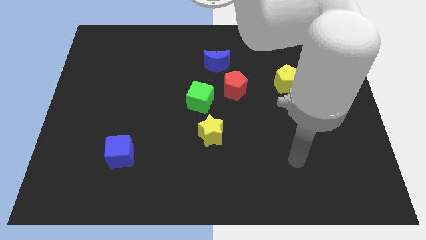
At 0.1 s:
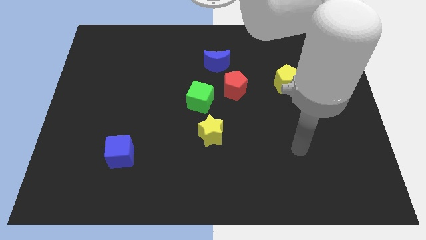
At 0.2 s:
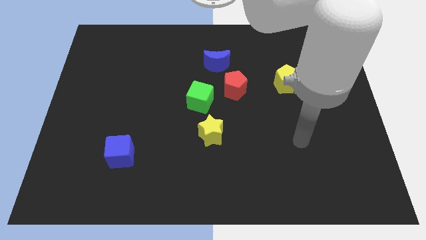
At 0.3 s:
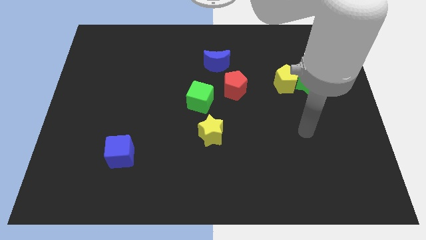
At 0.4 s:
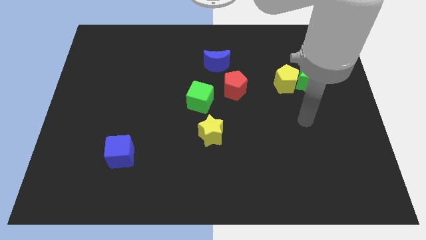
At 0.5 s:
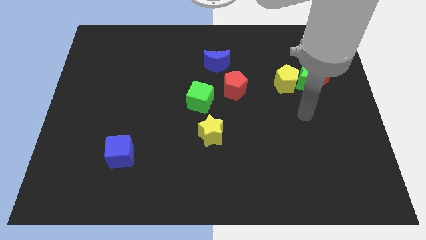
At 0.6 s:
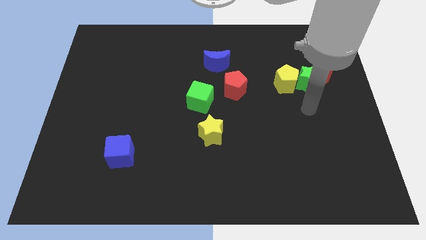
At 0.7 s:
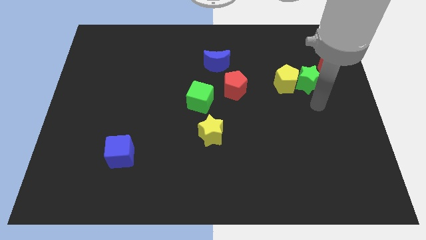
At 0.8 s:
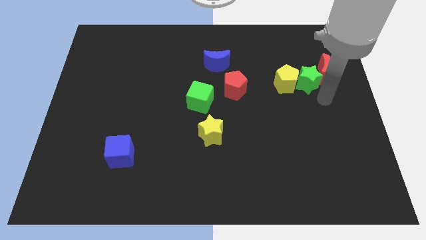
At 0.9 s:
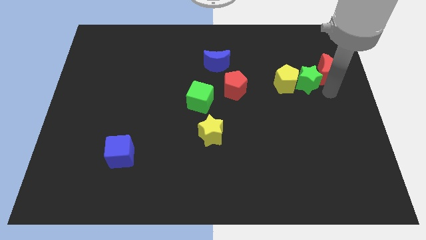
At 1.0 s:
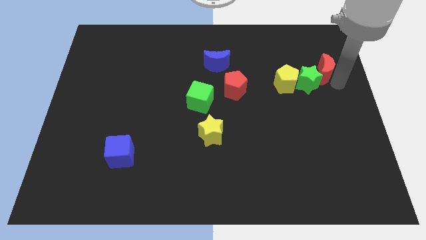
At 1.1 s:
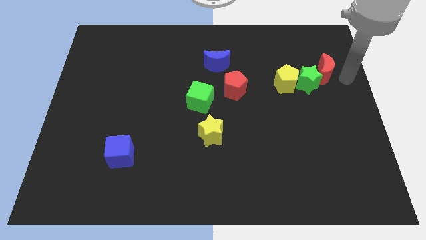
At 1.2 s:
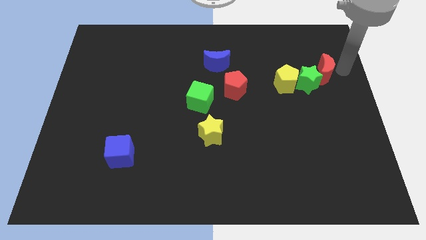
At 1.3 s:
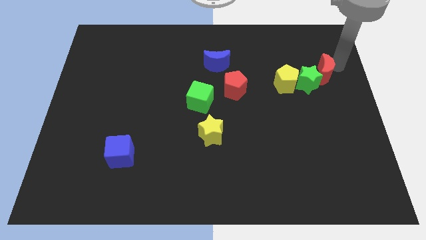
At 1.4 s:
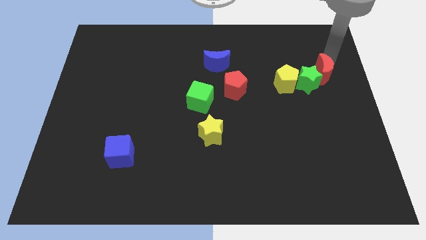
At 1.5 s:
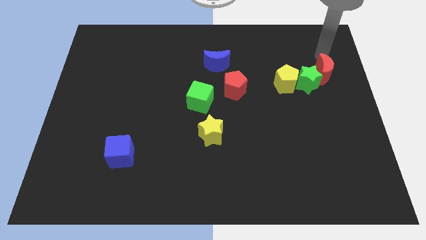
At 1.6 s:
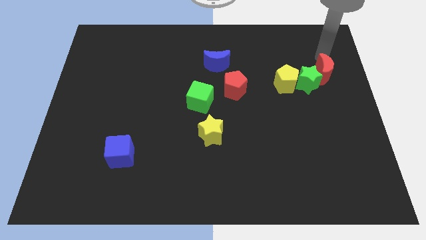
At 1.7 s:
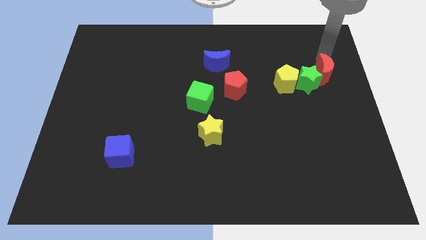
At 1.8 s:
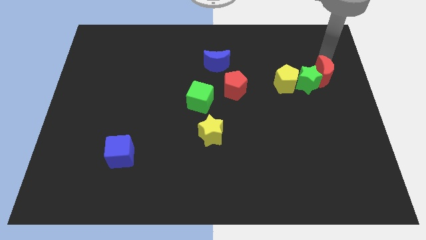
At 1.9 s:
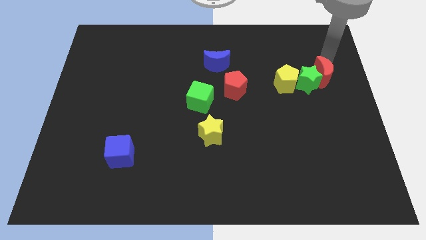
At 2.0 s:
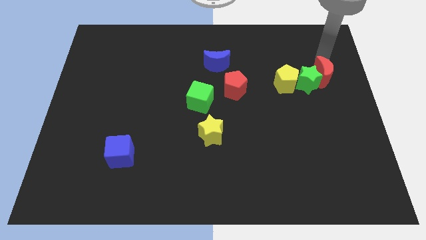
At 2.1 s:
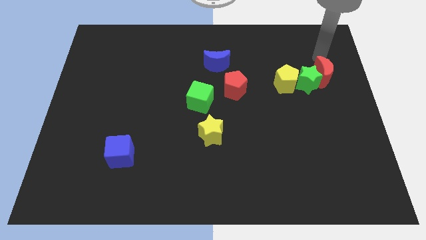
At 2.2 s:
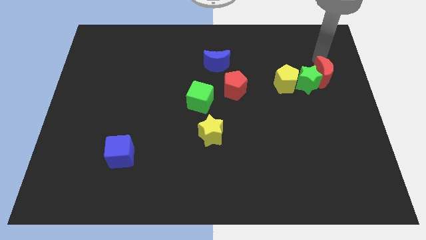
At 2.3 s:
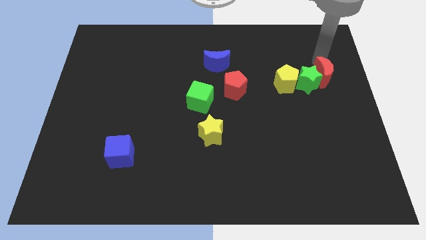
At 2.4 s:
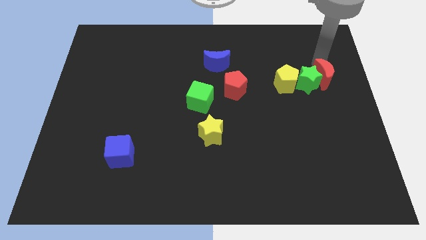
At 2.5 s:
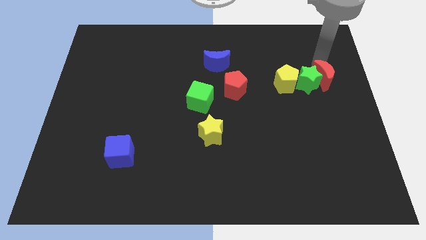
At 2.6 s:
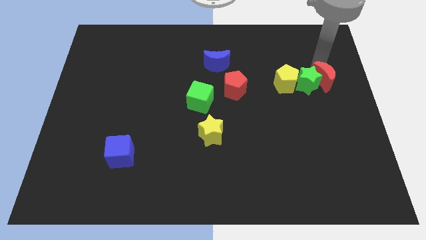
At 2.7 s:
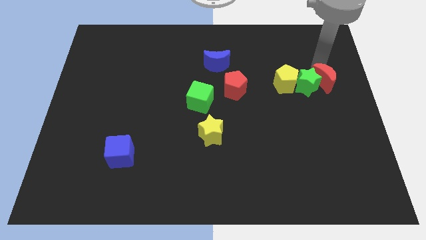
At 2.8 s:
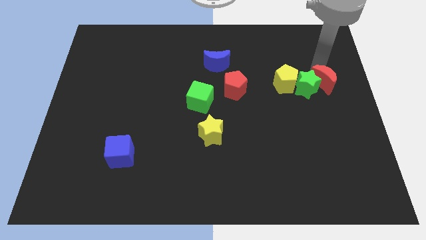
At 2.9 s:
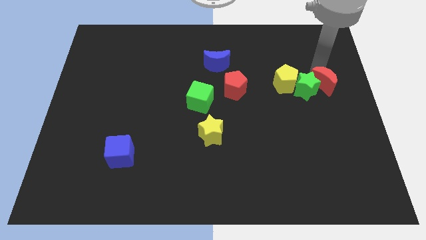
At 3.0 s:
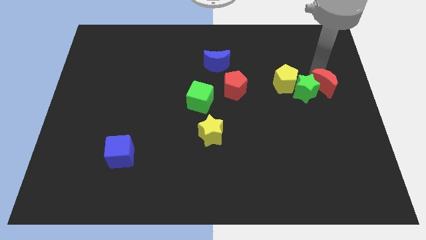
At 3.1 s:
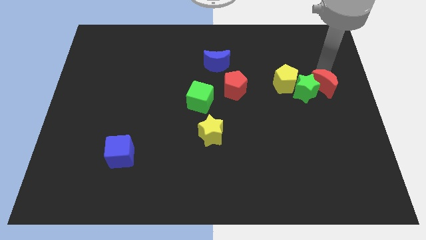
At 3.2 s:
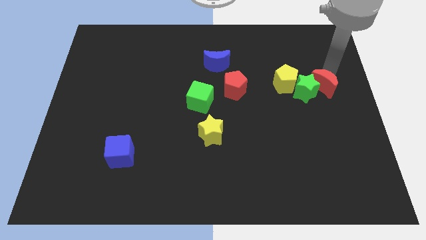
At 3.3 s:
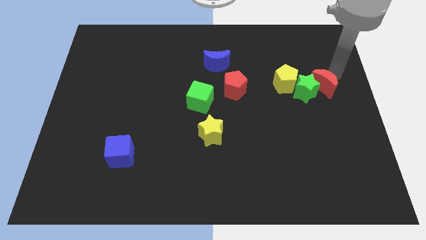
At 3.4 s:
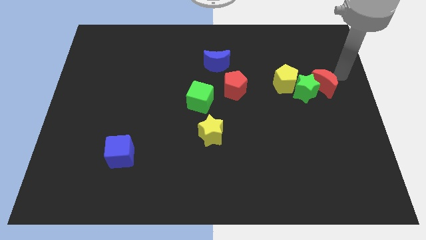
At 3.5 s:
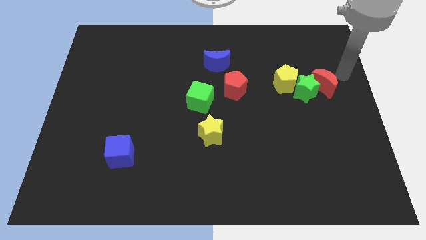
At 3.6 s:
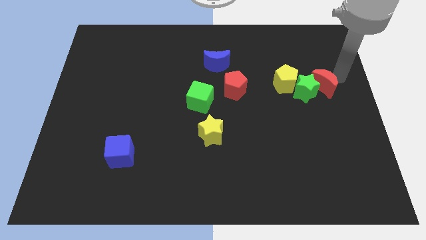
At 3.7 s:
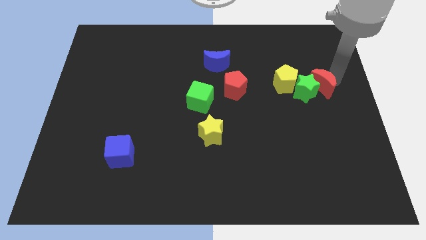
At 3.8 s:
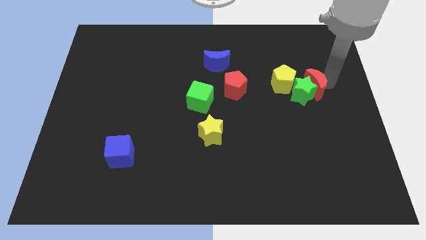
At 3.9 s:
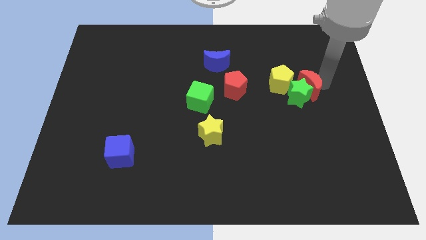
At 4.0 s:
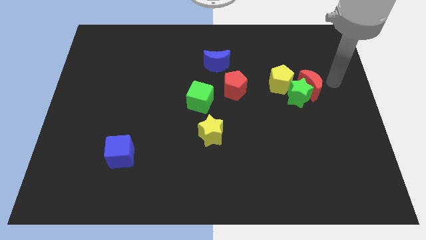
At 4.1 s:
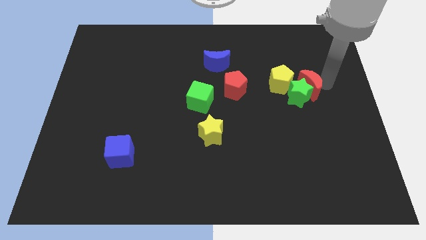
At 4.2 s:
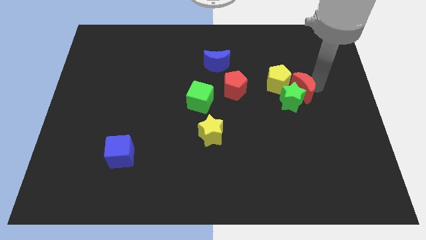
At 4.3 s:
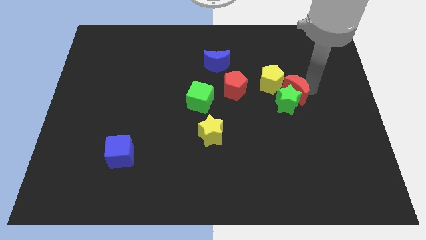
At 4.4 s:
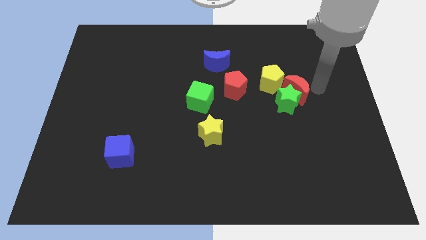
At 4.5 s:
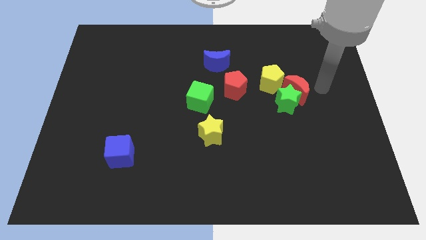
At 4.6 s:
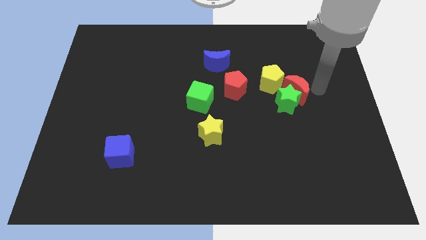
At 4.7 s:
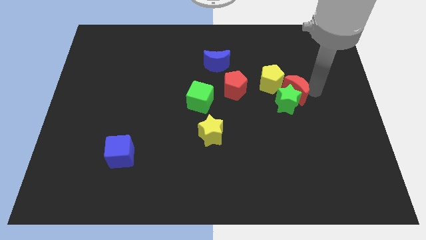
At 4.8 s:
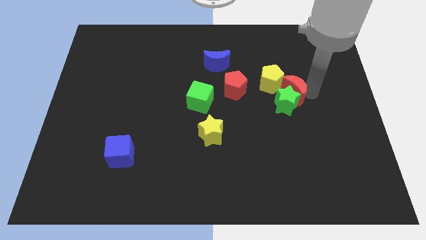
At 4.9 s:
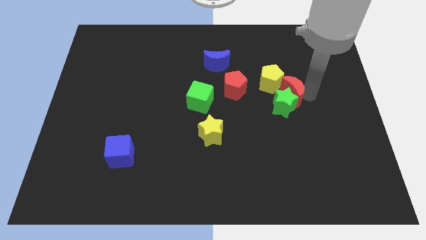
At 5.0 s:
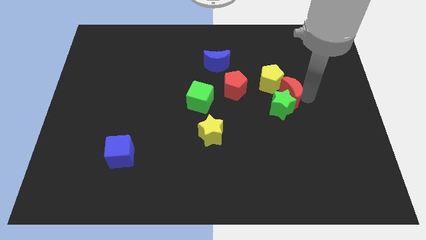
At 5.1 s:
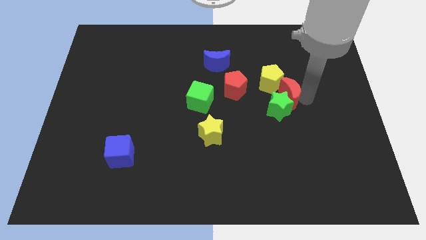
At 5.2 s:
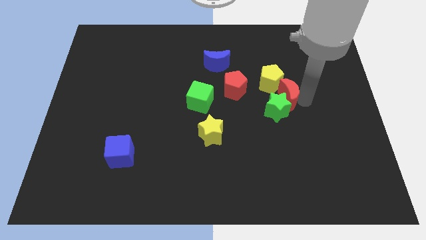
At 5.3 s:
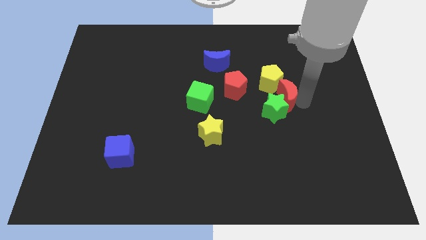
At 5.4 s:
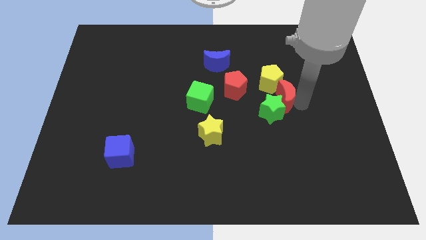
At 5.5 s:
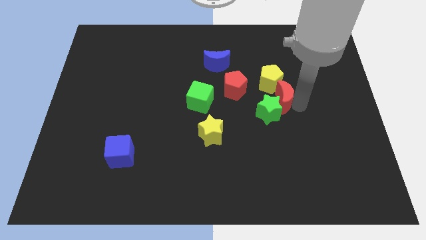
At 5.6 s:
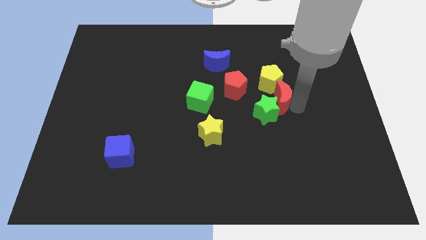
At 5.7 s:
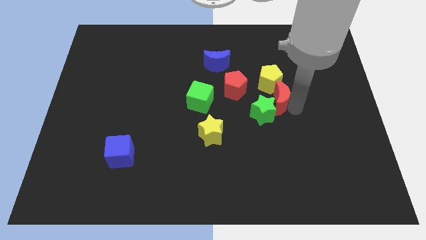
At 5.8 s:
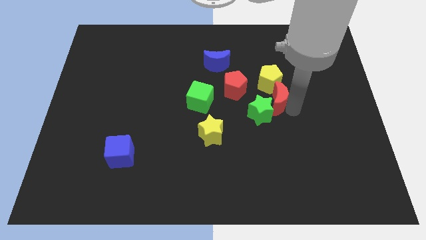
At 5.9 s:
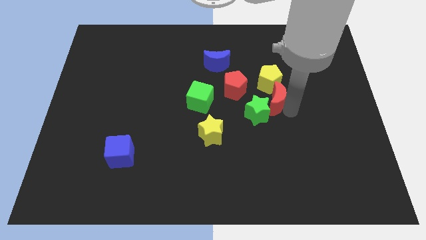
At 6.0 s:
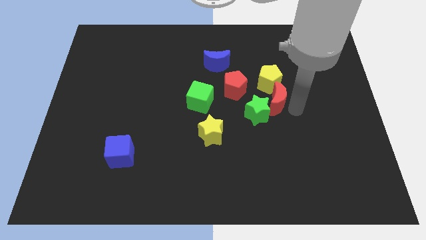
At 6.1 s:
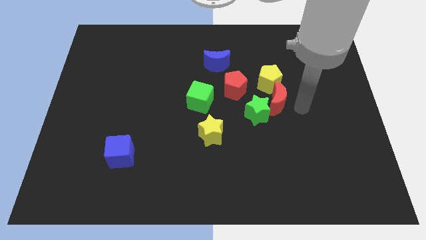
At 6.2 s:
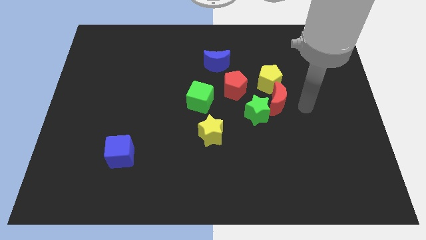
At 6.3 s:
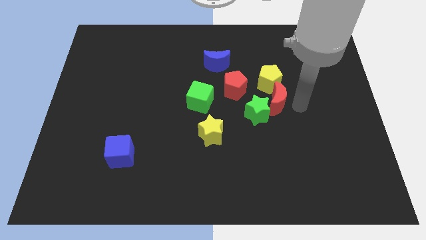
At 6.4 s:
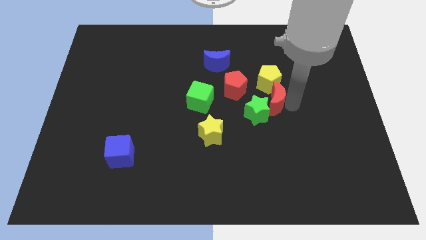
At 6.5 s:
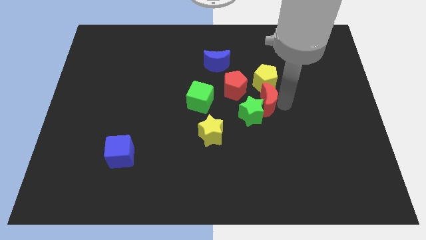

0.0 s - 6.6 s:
move the red moon to the bottom left side of the yellow pentagon

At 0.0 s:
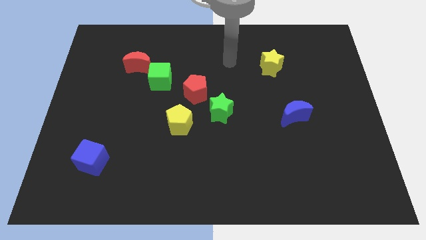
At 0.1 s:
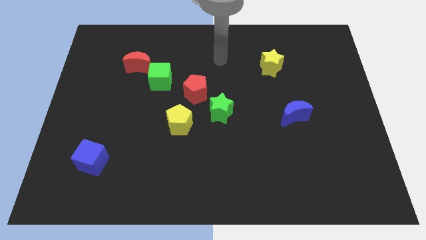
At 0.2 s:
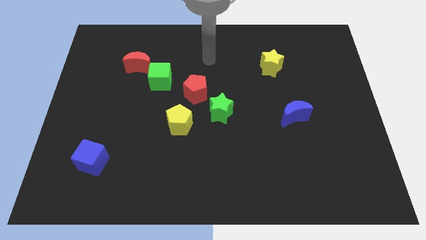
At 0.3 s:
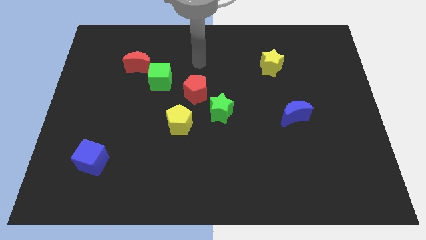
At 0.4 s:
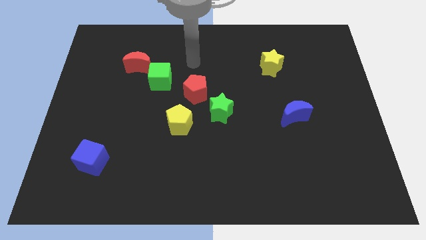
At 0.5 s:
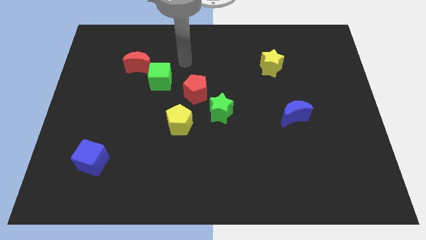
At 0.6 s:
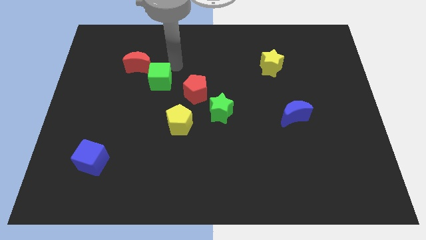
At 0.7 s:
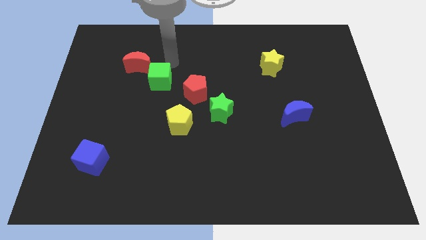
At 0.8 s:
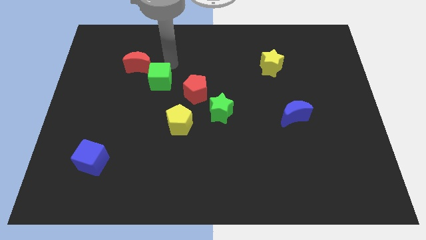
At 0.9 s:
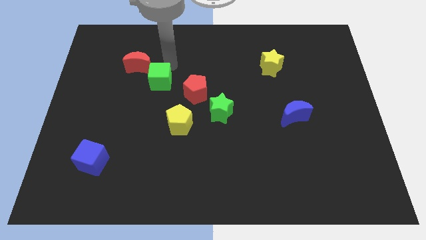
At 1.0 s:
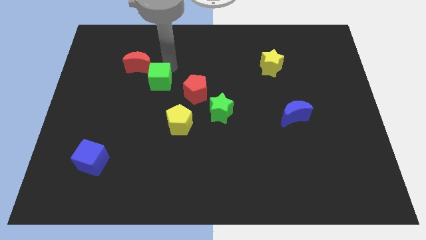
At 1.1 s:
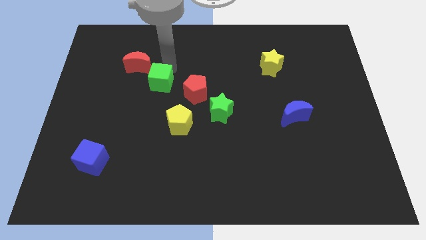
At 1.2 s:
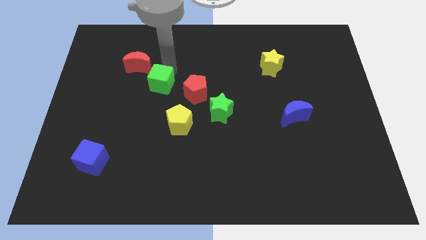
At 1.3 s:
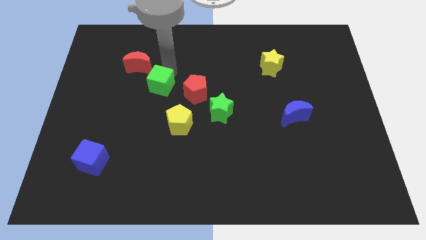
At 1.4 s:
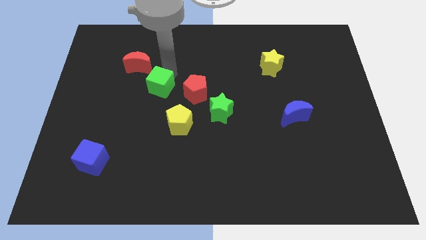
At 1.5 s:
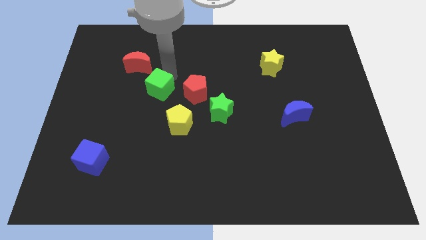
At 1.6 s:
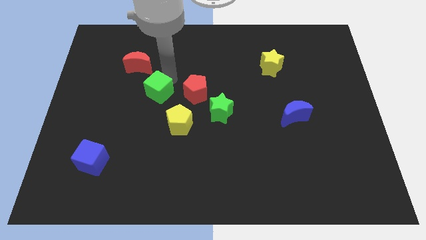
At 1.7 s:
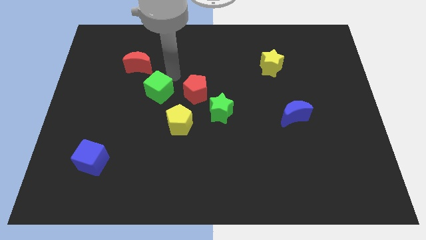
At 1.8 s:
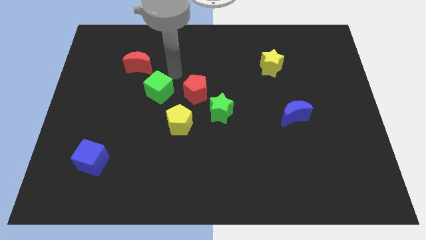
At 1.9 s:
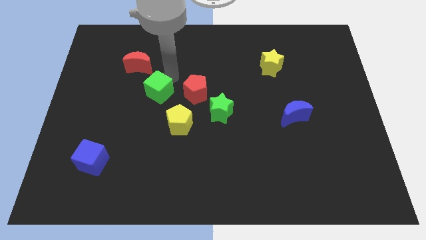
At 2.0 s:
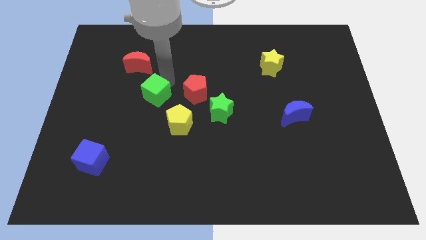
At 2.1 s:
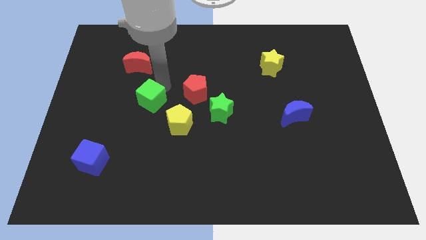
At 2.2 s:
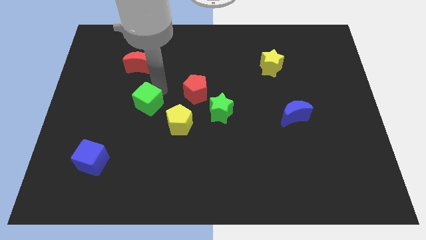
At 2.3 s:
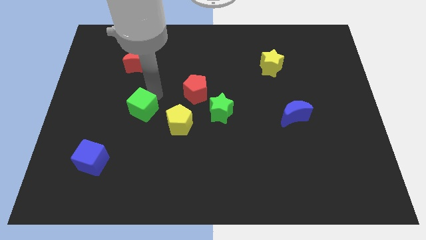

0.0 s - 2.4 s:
put the green cube left of the yellow pentagon
